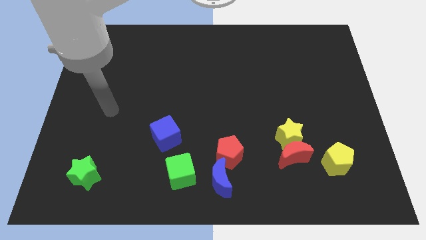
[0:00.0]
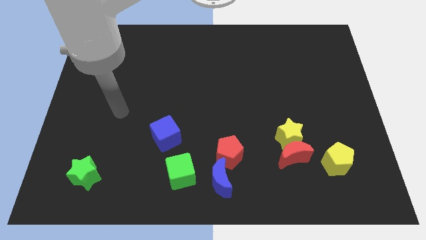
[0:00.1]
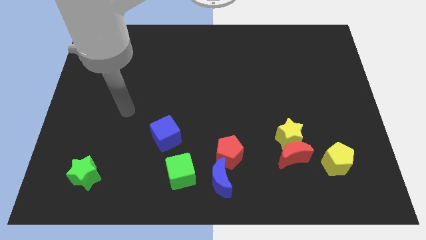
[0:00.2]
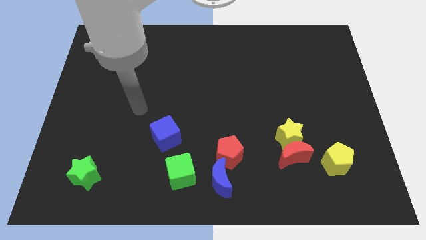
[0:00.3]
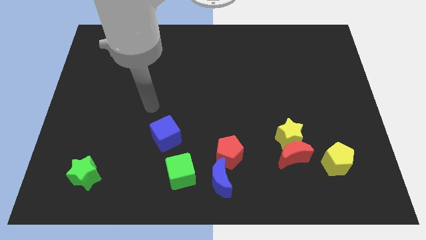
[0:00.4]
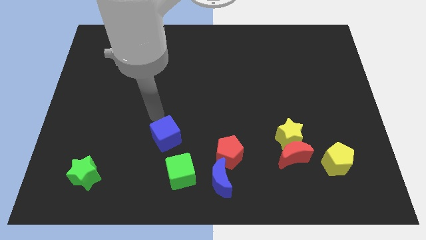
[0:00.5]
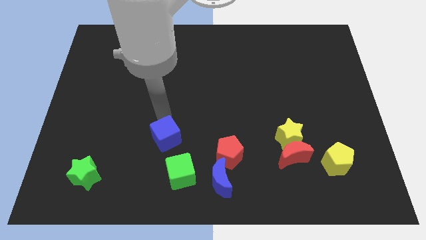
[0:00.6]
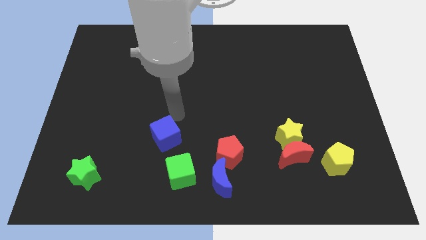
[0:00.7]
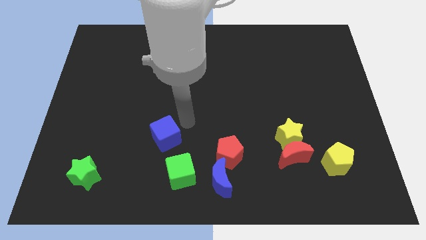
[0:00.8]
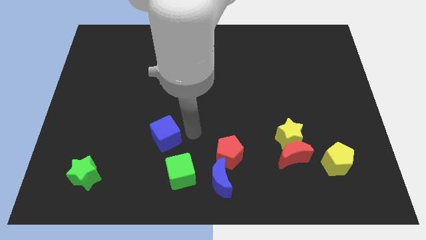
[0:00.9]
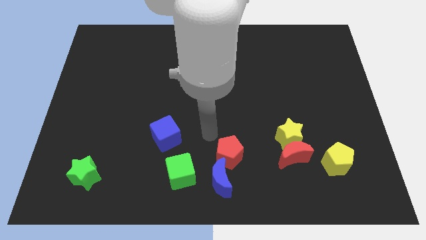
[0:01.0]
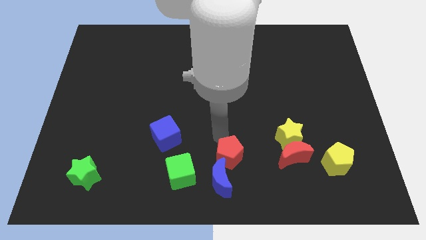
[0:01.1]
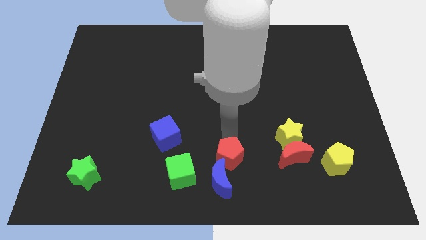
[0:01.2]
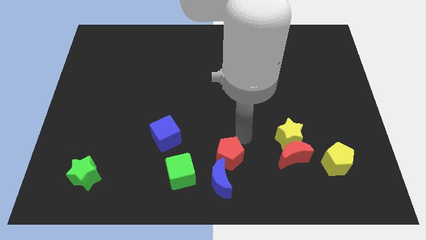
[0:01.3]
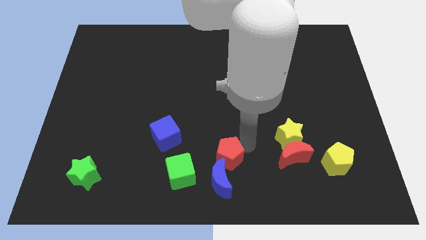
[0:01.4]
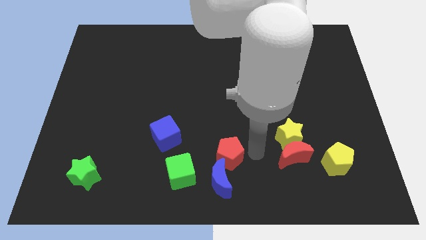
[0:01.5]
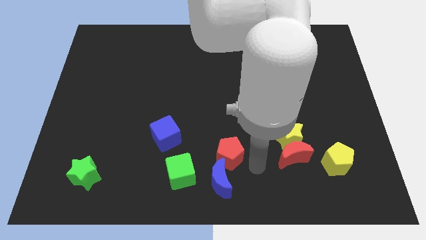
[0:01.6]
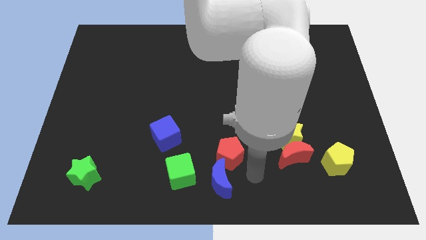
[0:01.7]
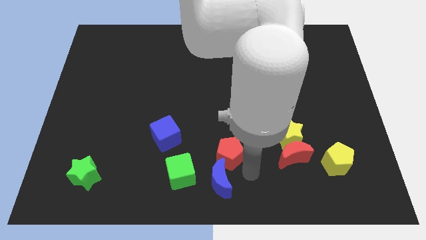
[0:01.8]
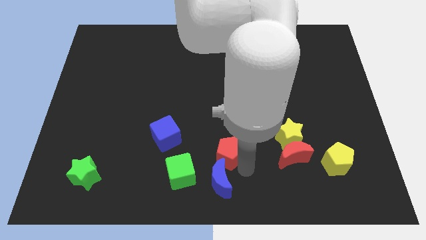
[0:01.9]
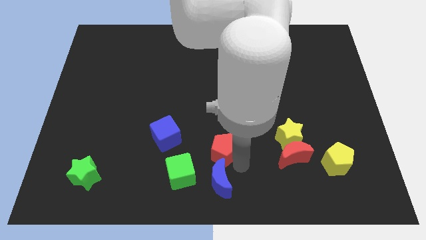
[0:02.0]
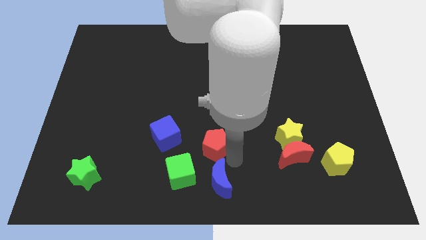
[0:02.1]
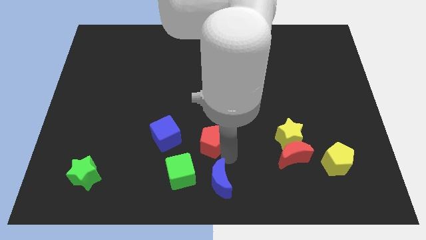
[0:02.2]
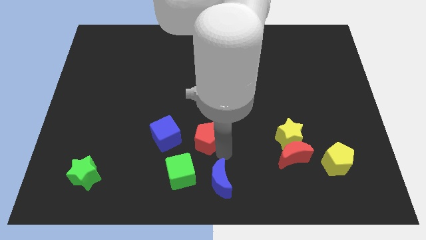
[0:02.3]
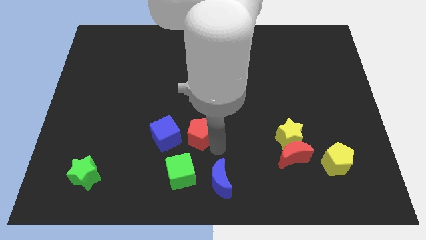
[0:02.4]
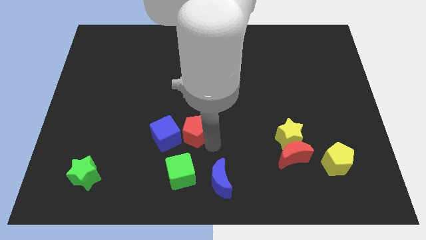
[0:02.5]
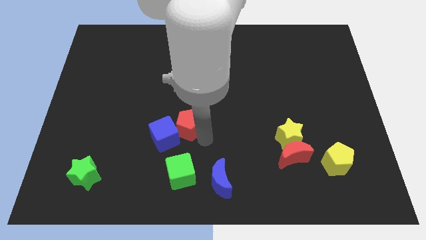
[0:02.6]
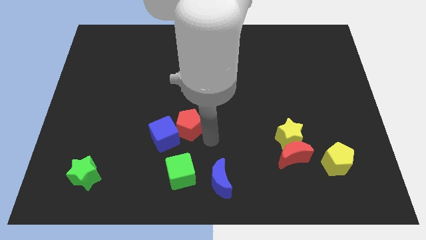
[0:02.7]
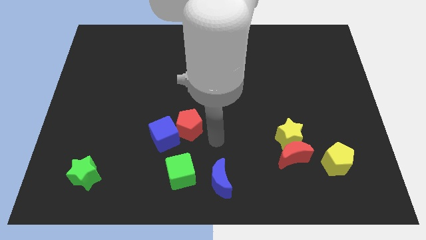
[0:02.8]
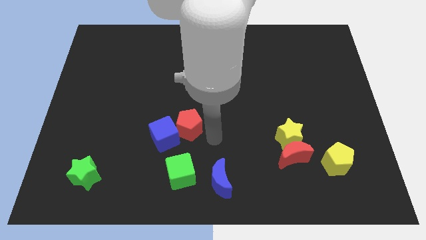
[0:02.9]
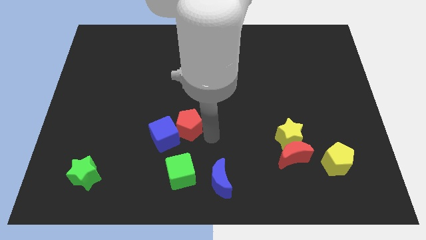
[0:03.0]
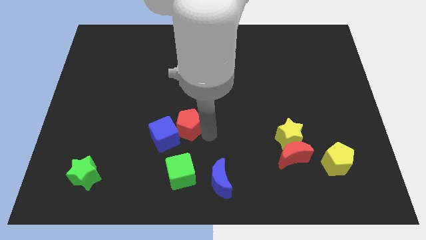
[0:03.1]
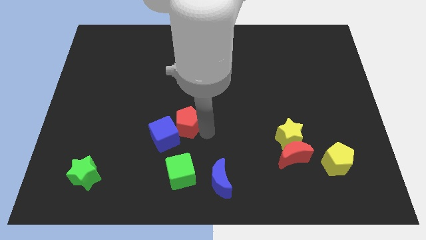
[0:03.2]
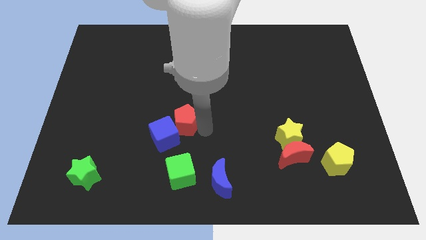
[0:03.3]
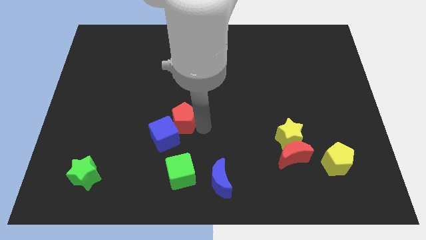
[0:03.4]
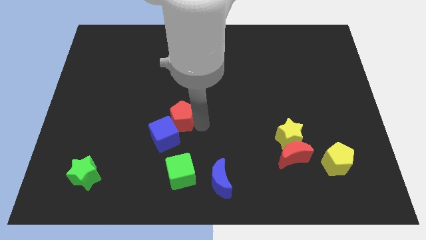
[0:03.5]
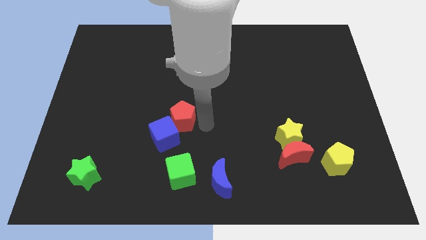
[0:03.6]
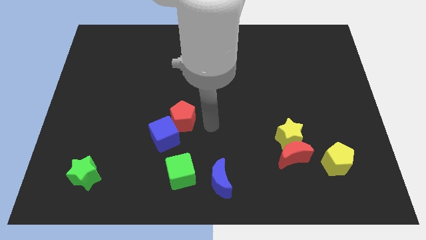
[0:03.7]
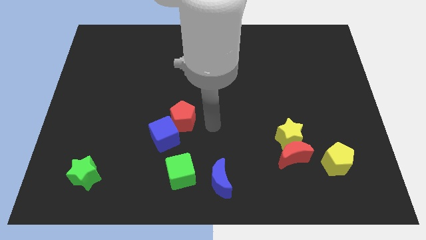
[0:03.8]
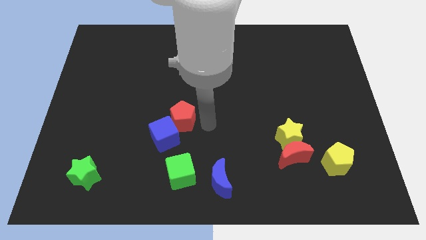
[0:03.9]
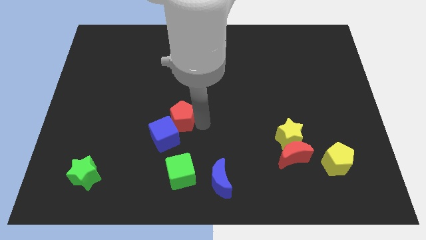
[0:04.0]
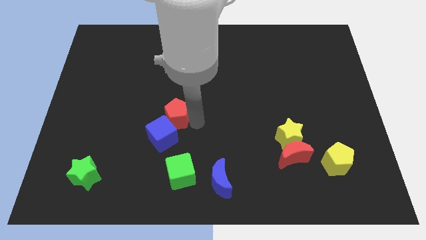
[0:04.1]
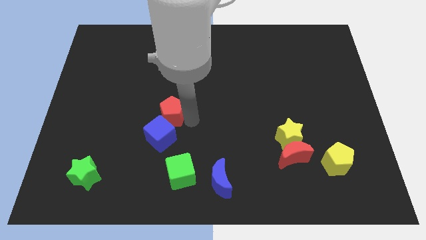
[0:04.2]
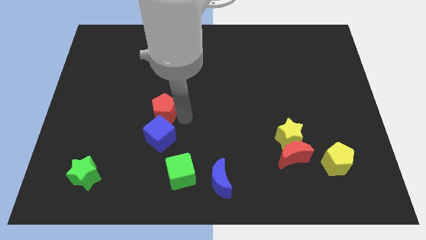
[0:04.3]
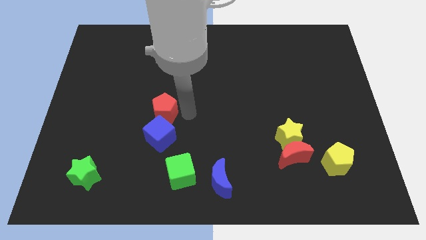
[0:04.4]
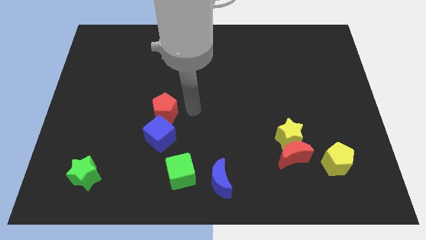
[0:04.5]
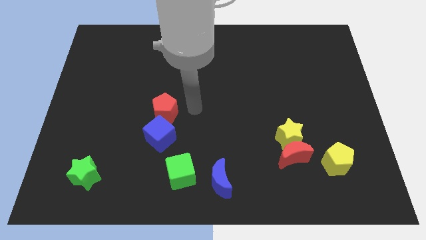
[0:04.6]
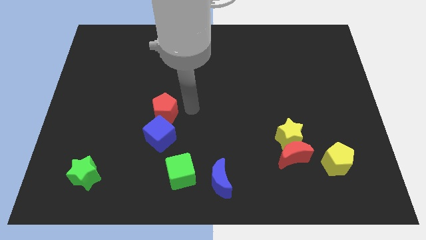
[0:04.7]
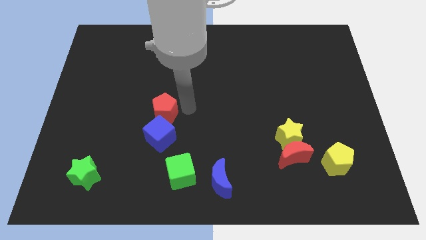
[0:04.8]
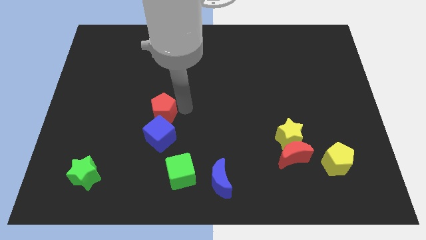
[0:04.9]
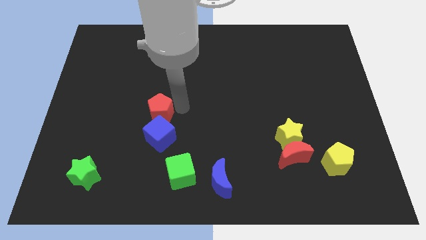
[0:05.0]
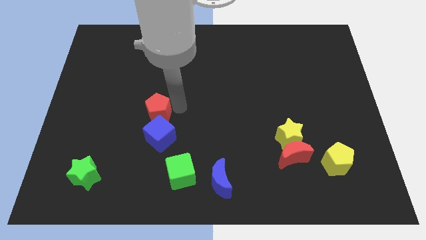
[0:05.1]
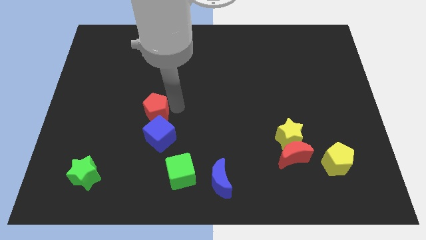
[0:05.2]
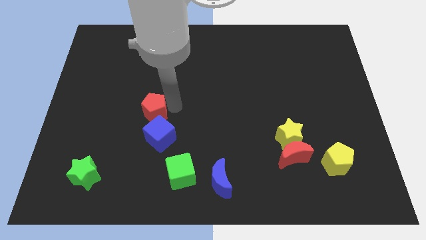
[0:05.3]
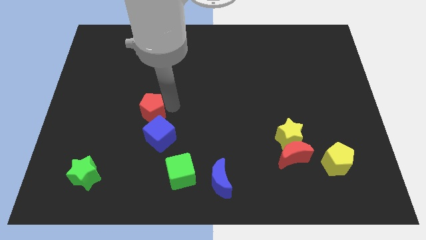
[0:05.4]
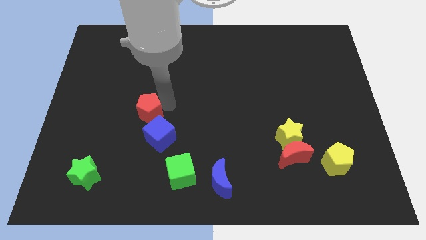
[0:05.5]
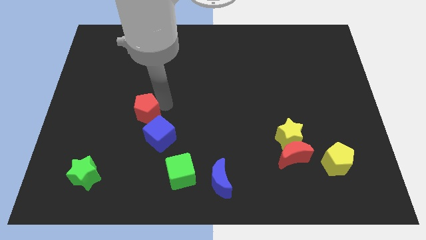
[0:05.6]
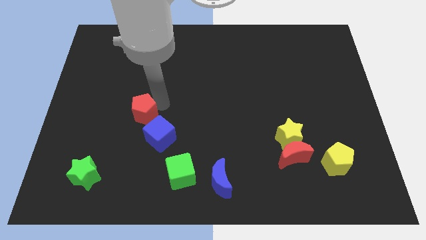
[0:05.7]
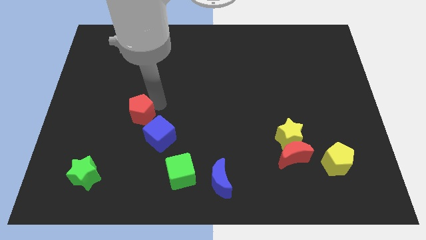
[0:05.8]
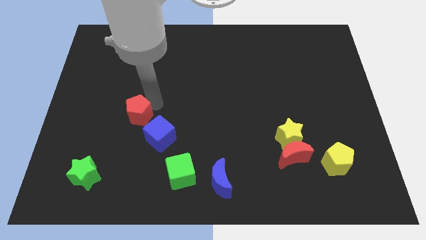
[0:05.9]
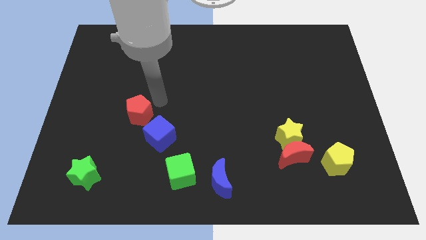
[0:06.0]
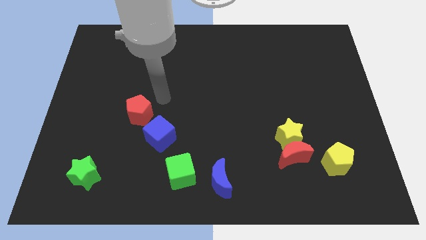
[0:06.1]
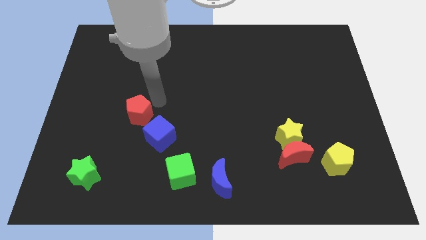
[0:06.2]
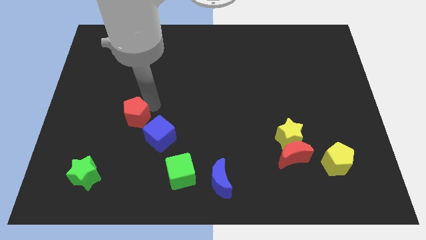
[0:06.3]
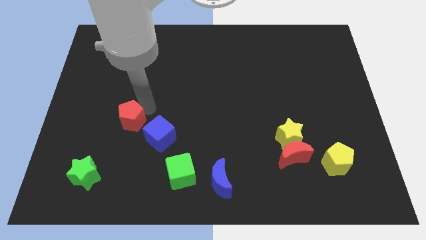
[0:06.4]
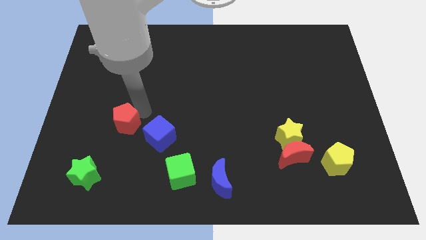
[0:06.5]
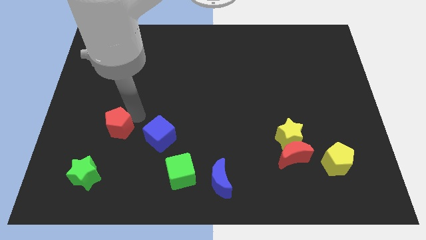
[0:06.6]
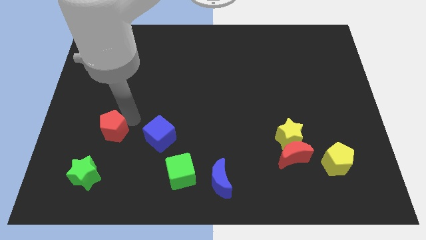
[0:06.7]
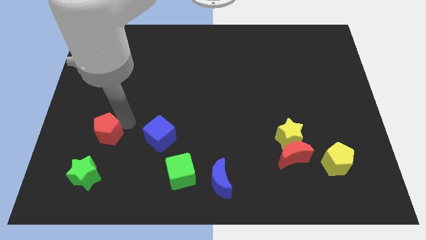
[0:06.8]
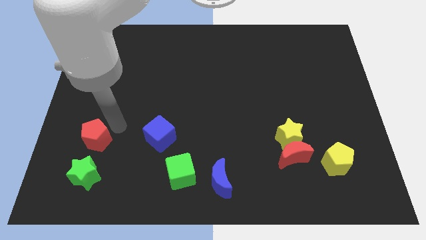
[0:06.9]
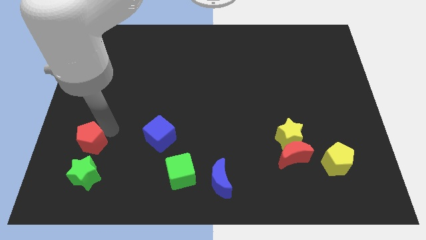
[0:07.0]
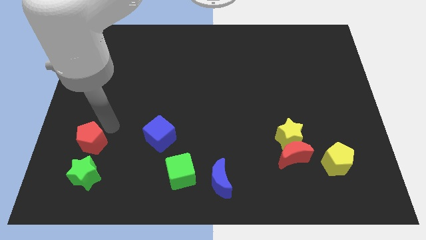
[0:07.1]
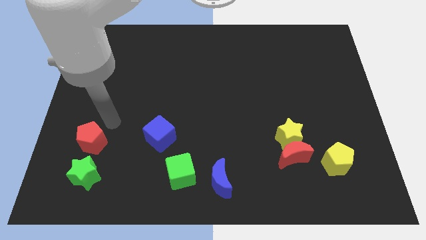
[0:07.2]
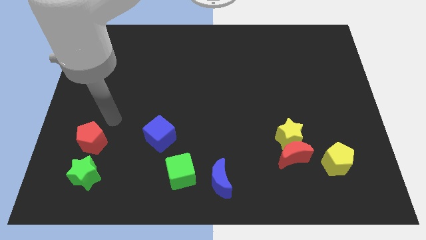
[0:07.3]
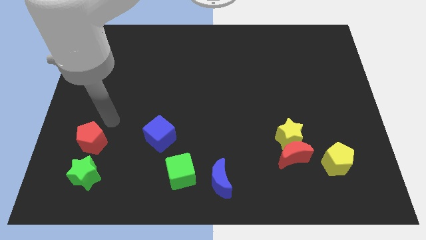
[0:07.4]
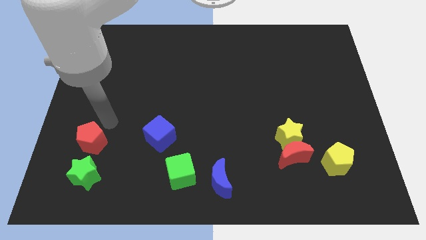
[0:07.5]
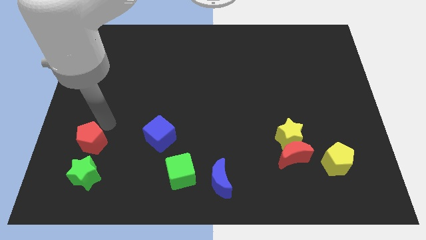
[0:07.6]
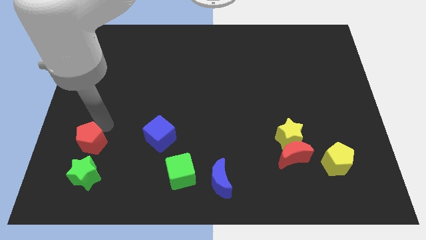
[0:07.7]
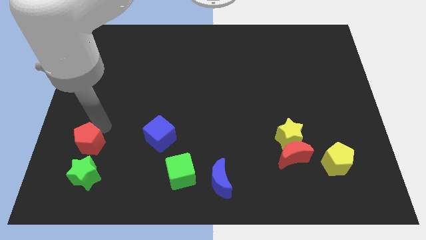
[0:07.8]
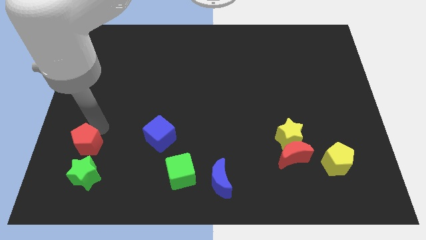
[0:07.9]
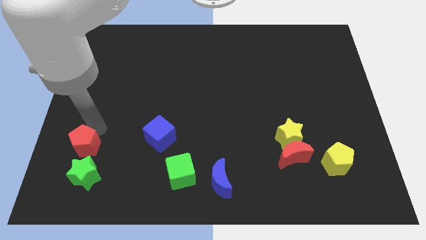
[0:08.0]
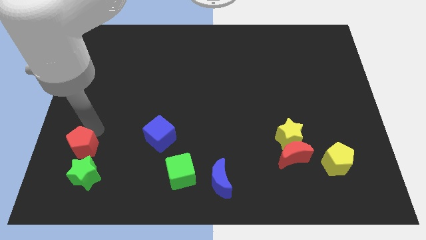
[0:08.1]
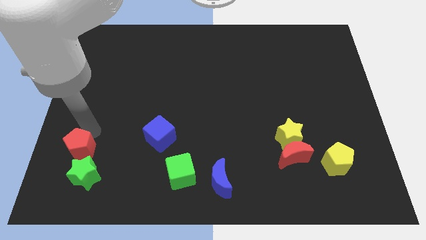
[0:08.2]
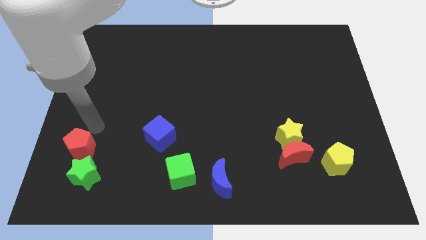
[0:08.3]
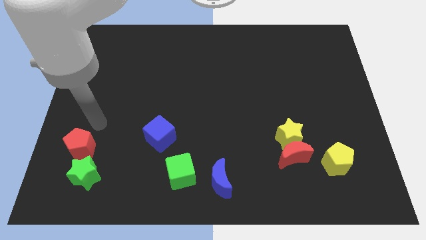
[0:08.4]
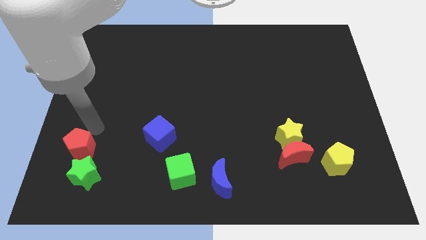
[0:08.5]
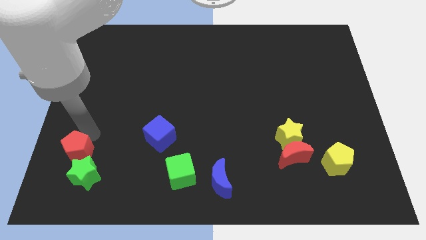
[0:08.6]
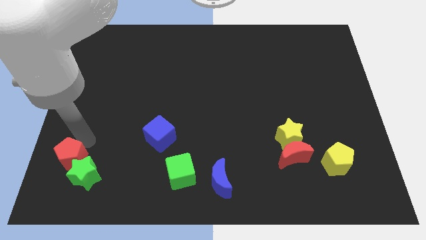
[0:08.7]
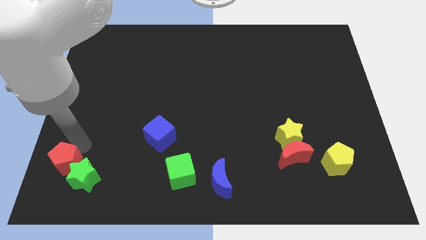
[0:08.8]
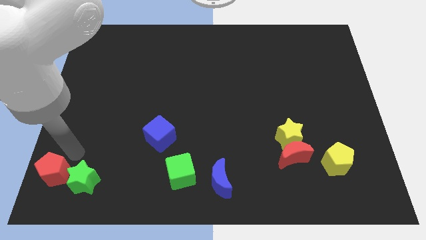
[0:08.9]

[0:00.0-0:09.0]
move the red pentagon to the lower left corner
